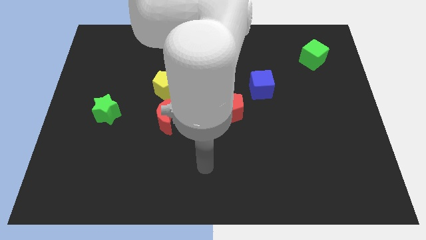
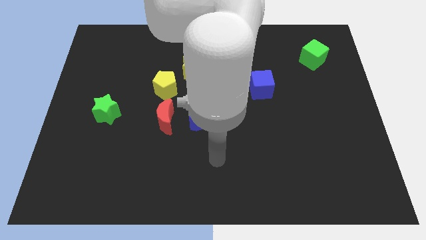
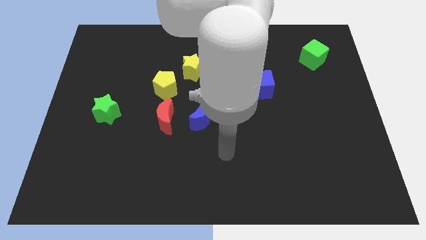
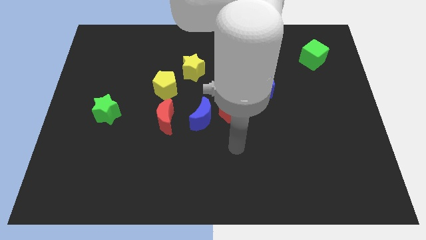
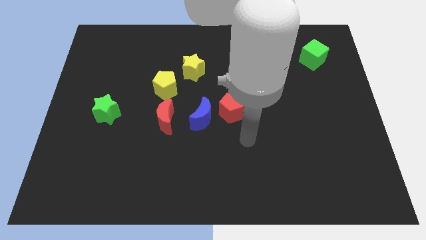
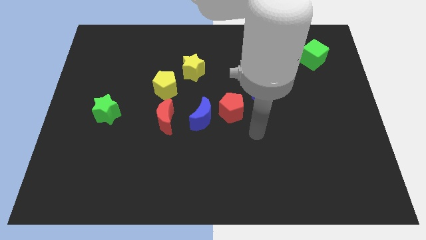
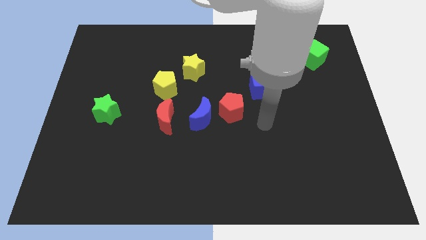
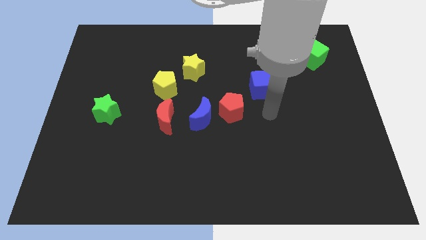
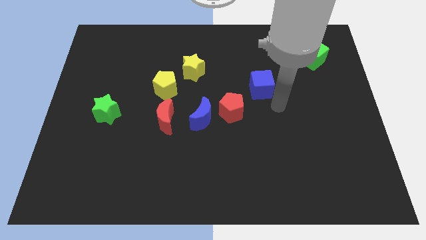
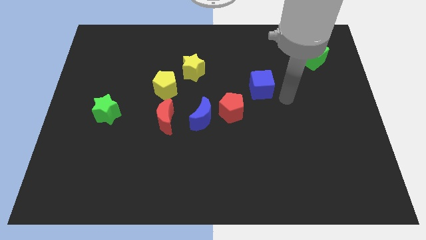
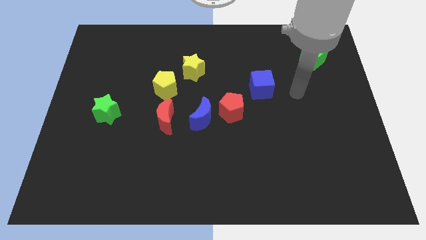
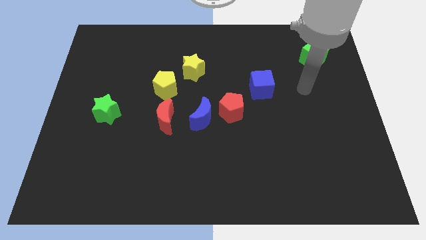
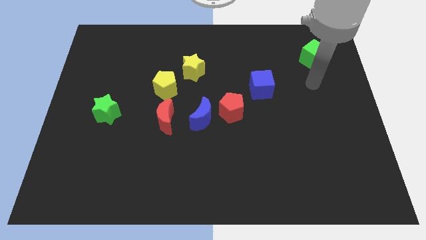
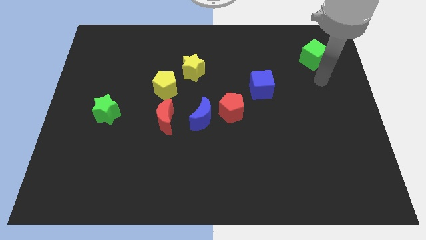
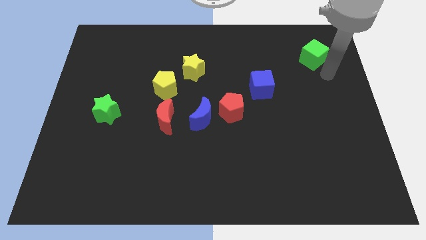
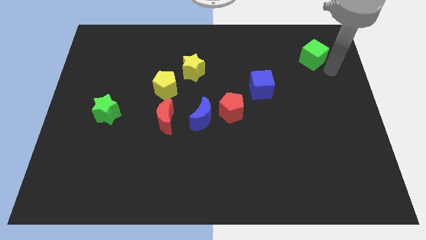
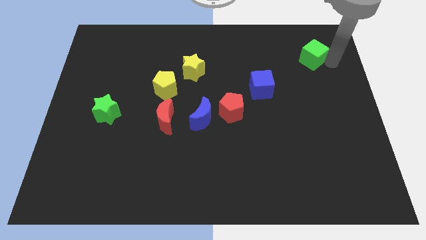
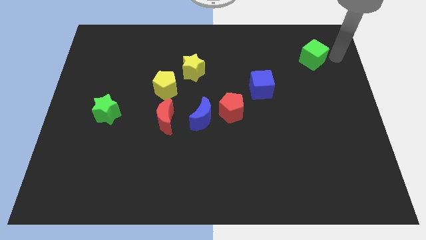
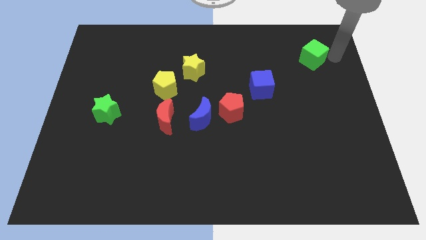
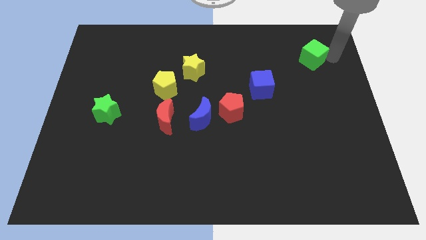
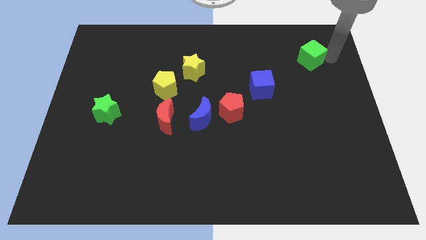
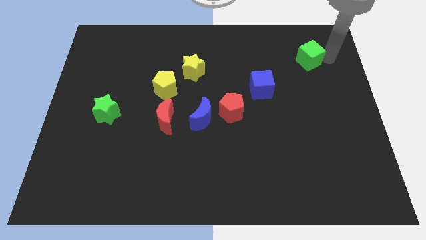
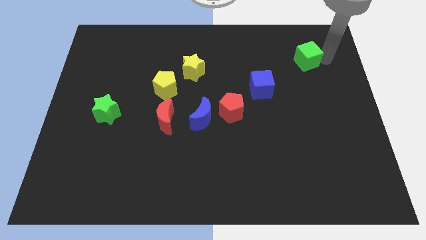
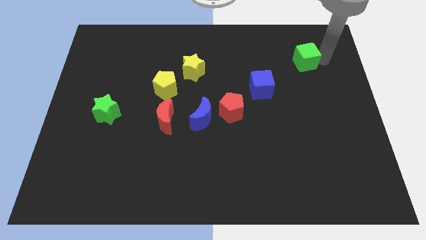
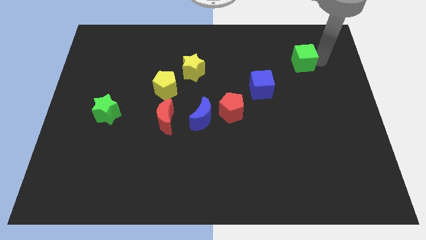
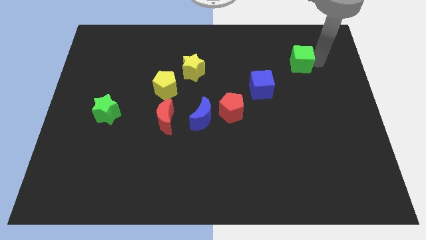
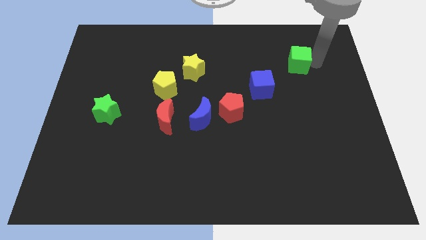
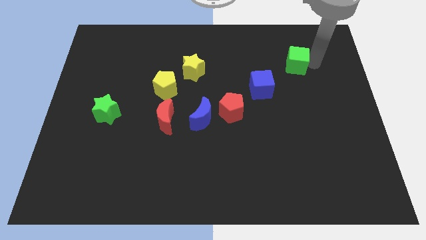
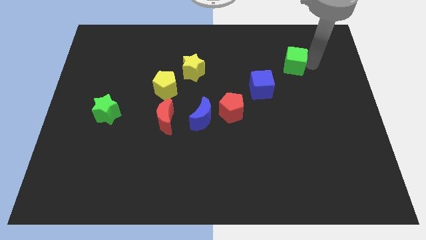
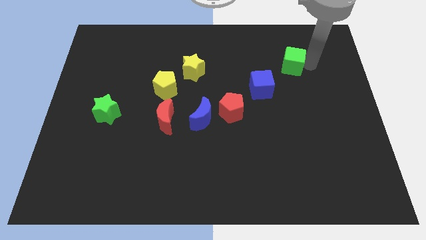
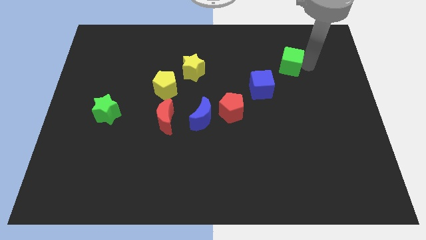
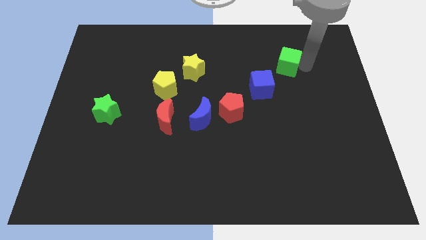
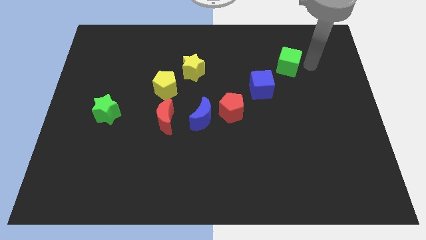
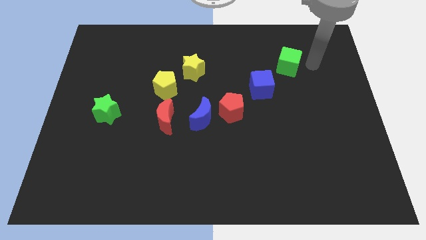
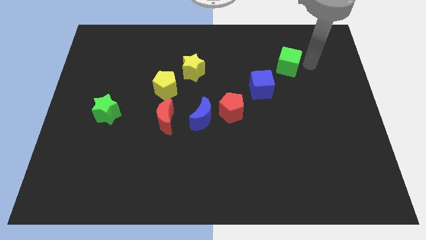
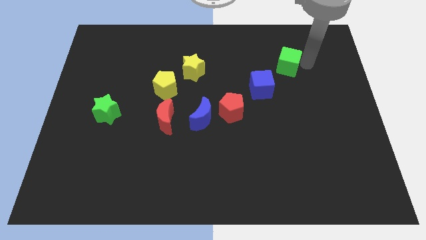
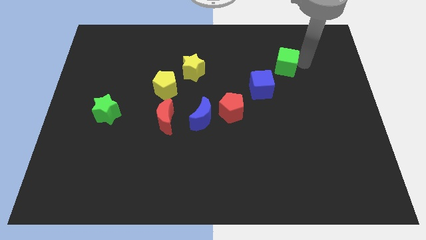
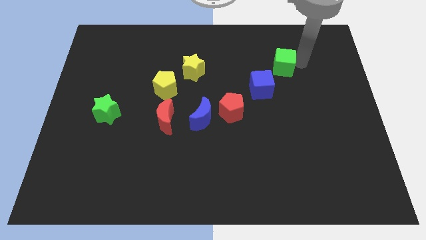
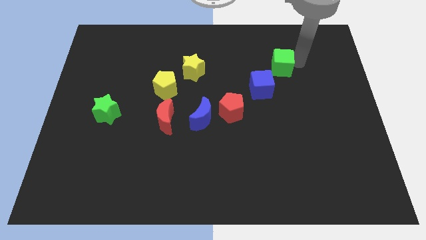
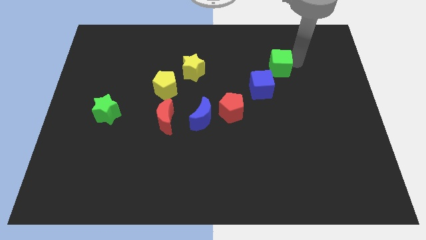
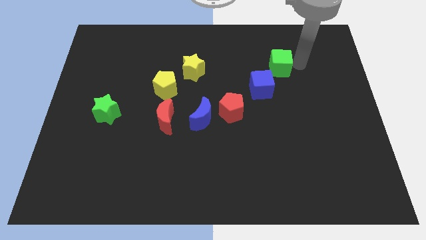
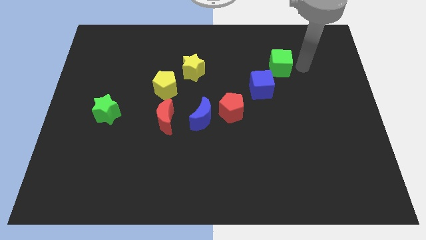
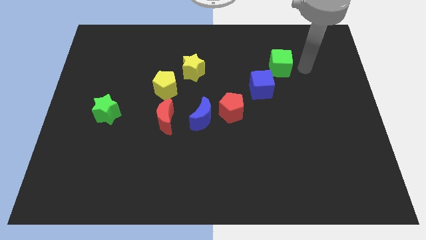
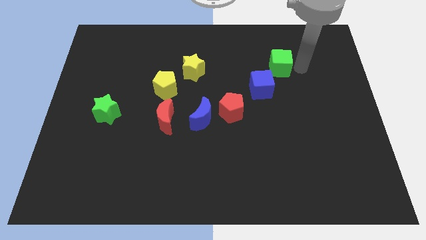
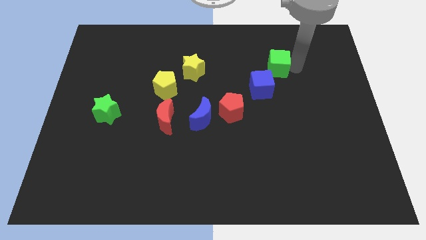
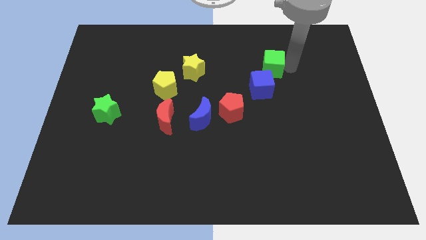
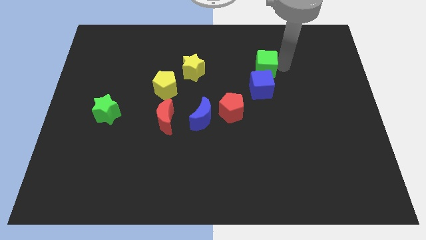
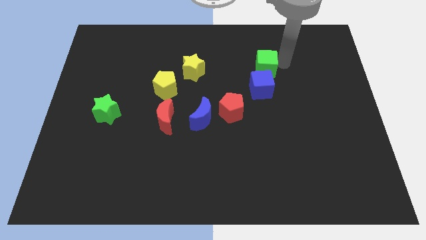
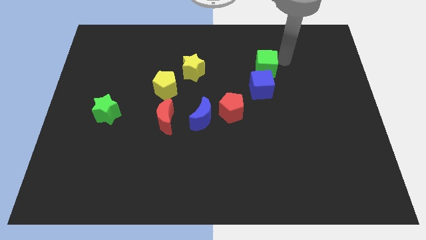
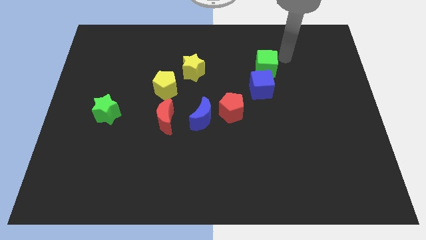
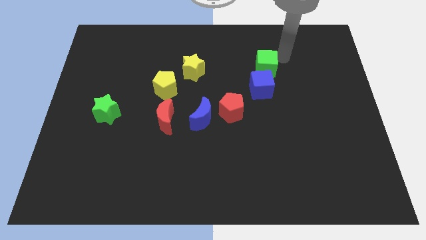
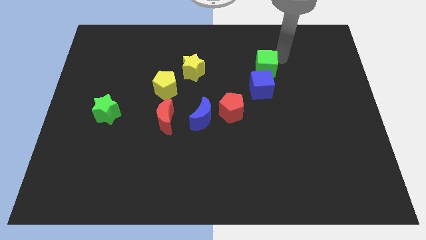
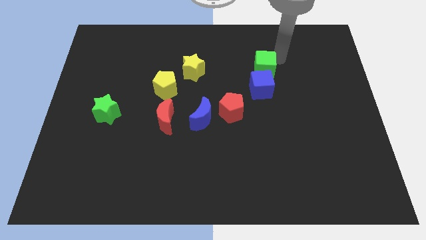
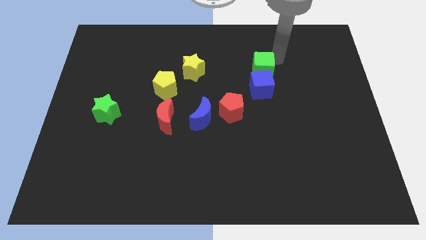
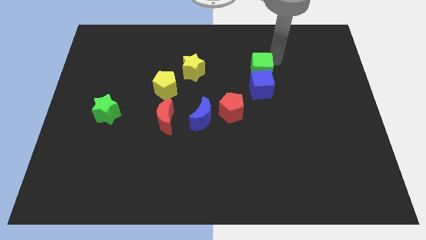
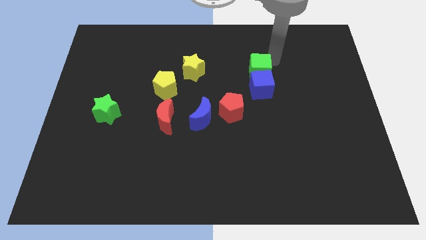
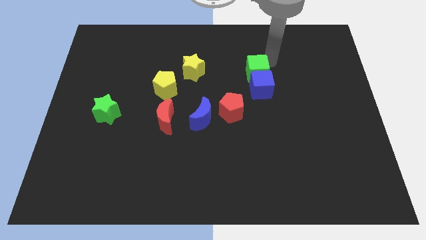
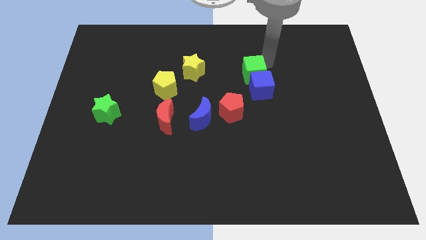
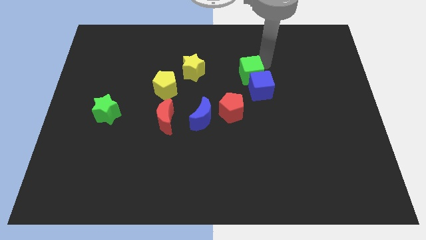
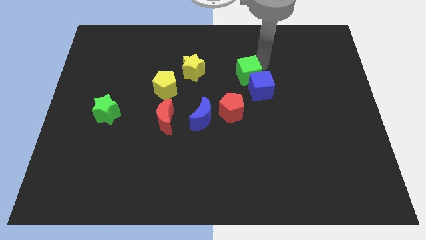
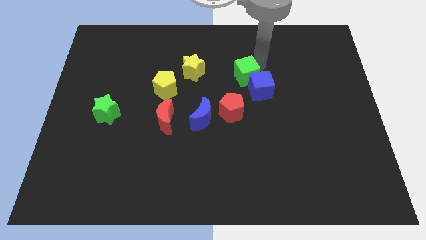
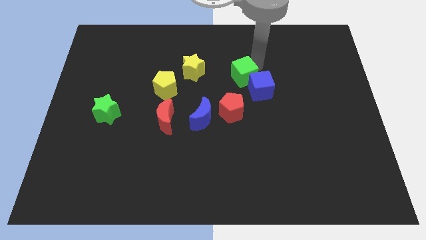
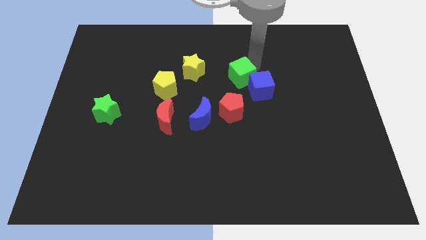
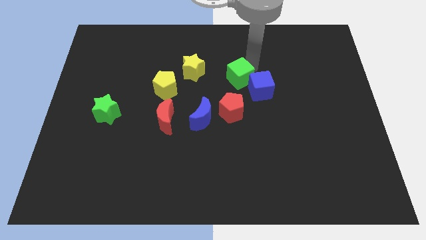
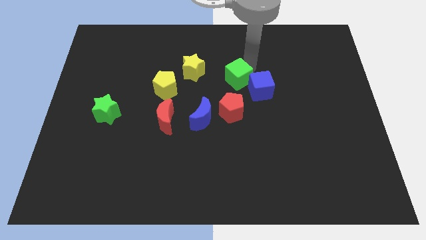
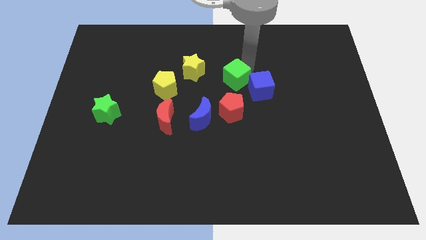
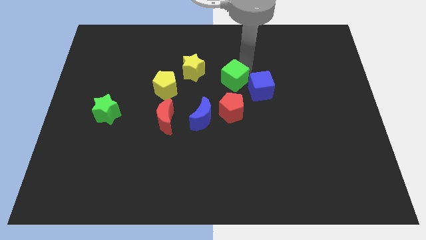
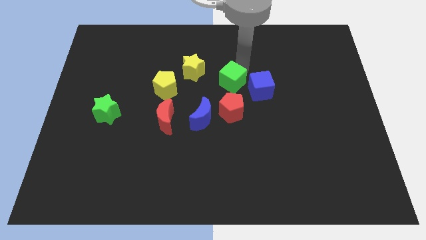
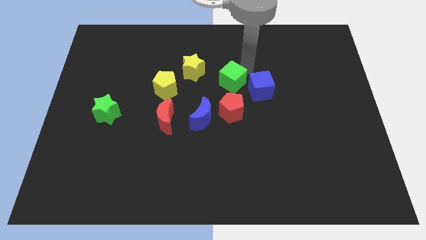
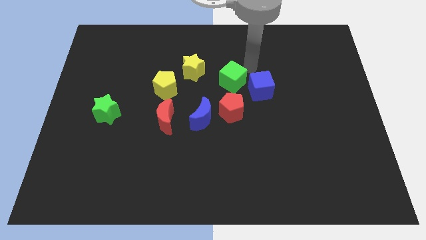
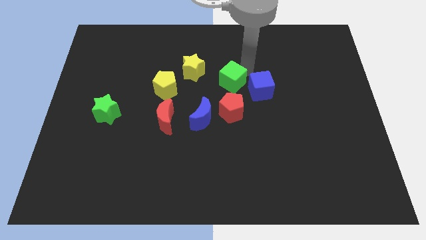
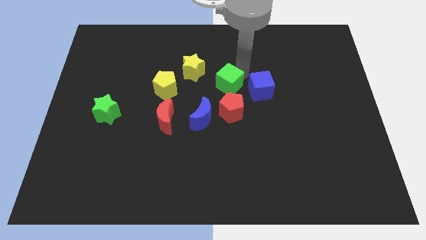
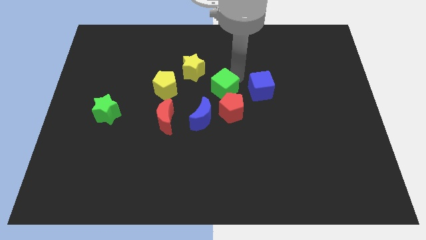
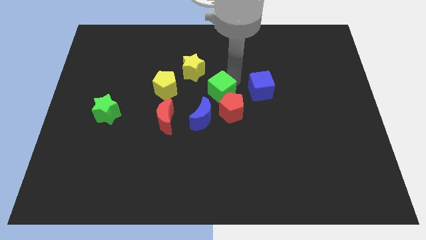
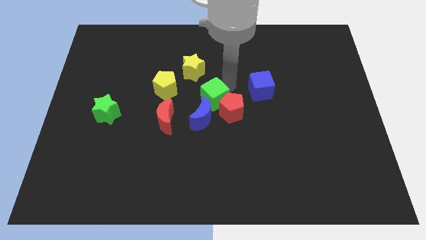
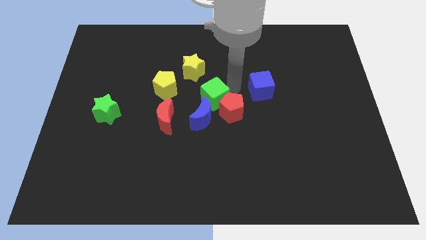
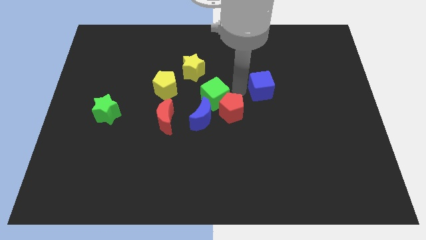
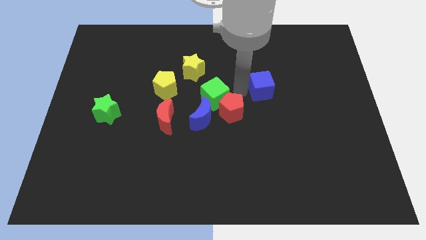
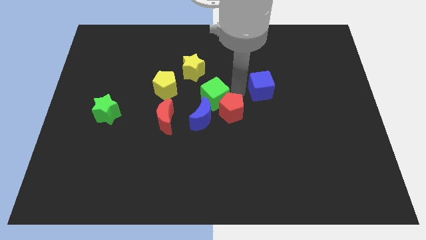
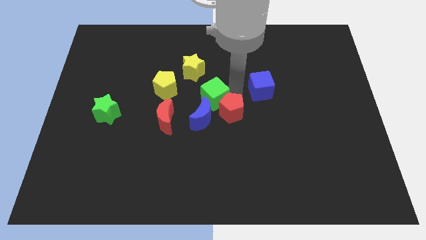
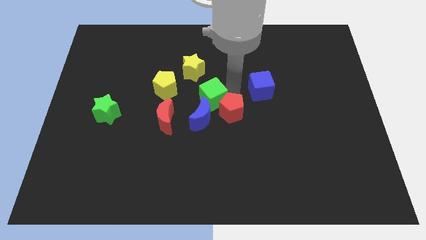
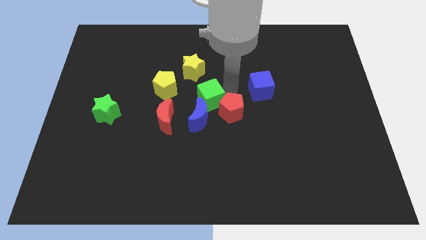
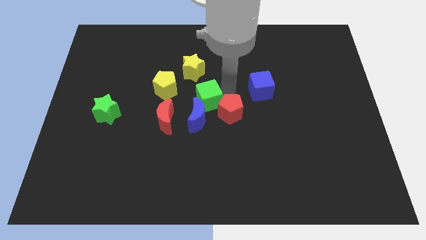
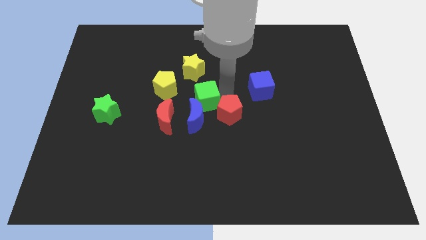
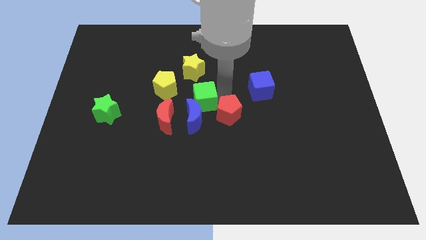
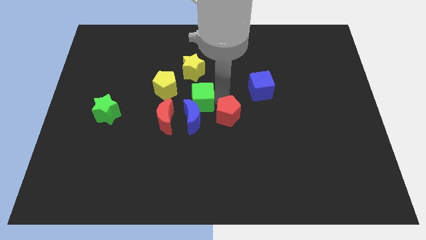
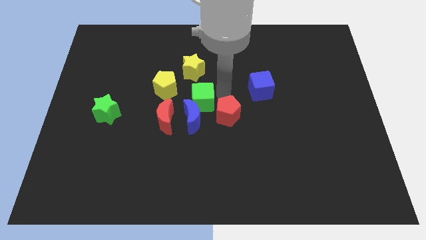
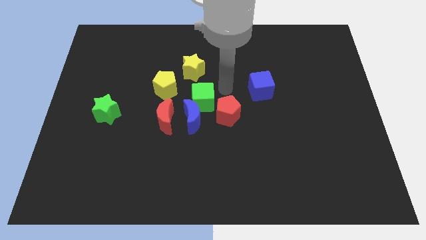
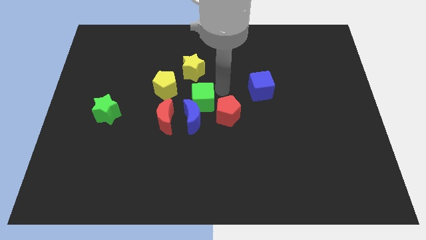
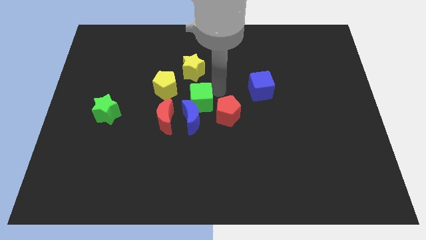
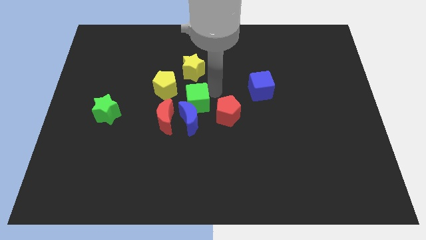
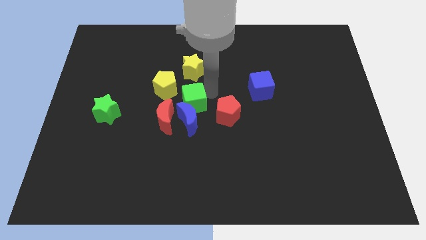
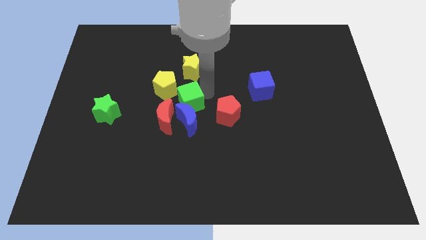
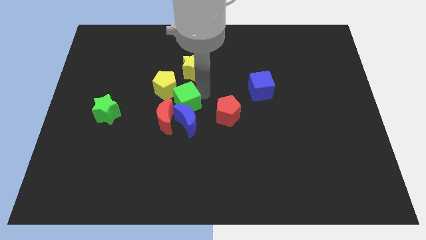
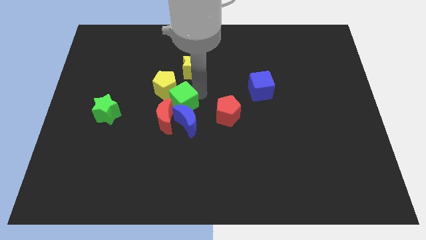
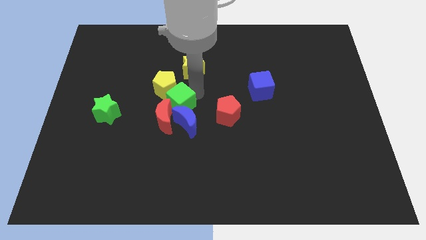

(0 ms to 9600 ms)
slide the green cube towards the red moon
